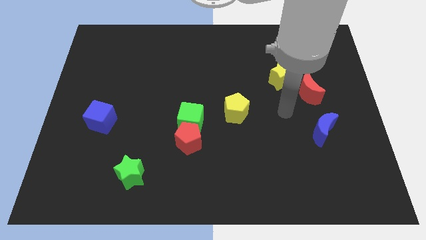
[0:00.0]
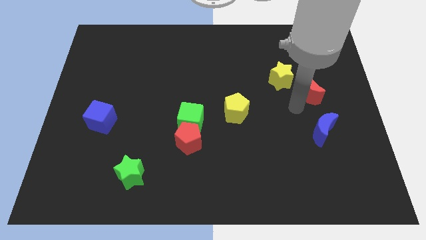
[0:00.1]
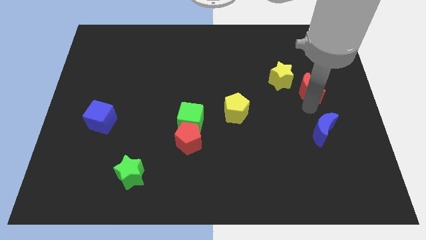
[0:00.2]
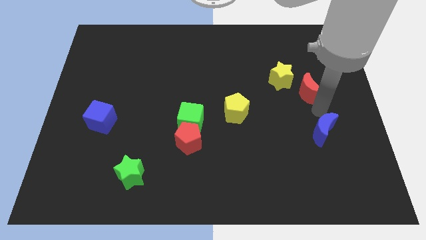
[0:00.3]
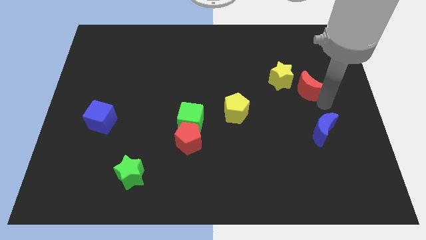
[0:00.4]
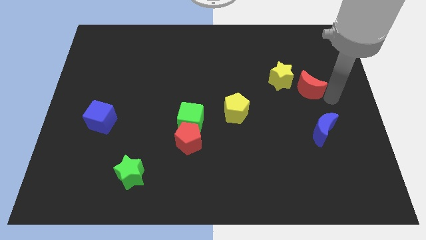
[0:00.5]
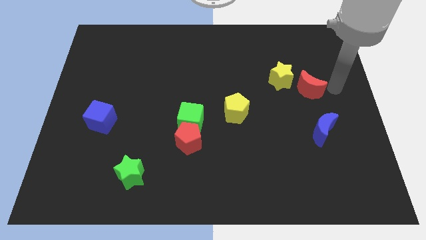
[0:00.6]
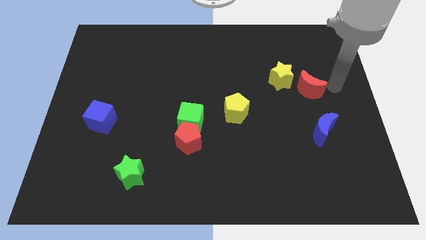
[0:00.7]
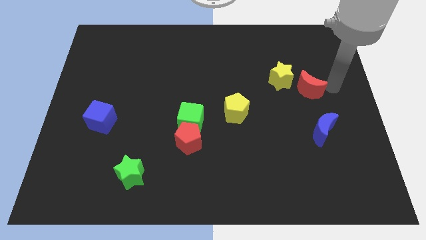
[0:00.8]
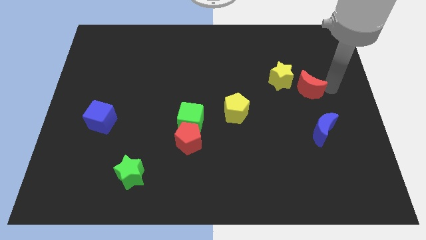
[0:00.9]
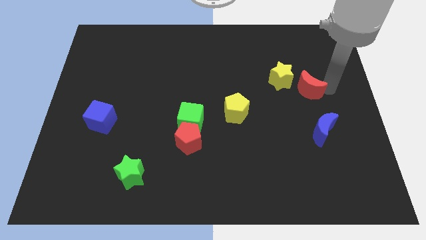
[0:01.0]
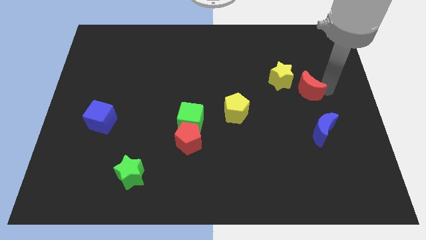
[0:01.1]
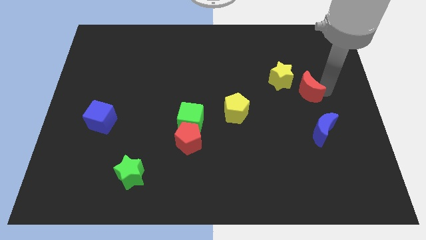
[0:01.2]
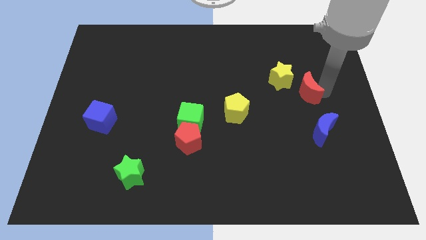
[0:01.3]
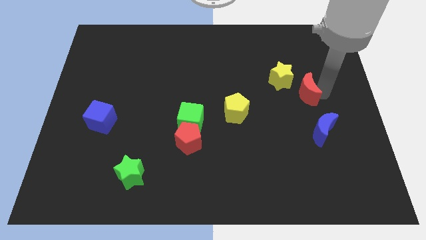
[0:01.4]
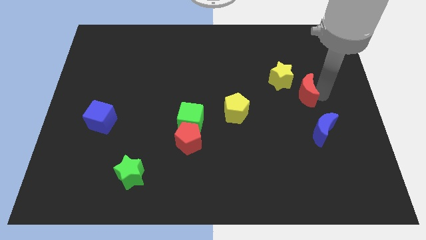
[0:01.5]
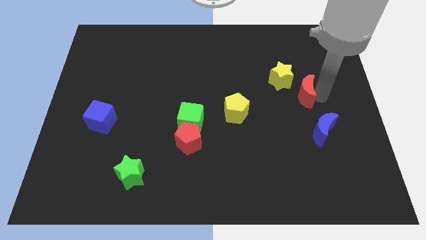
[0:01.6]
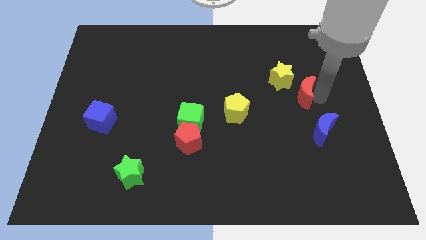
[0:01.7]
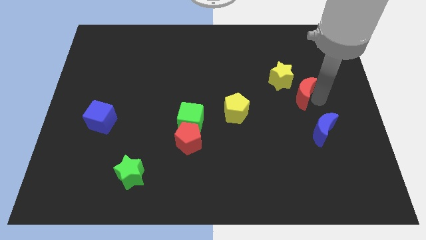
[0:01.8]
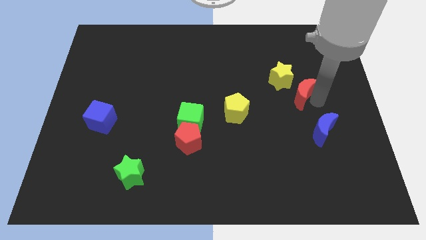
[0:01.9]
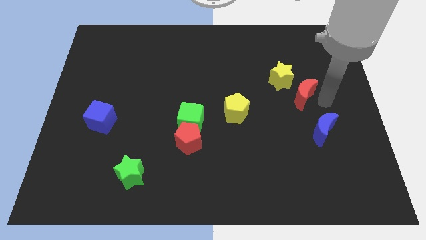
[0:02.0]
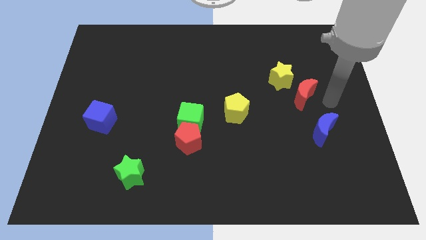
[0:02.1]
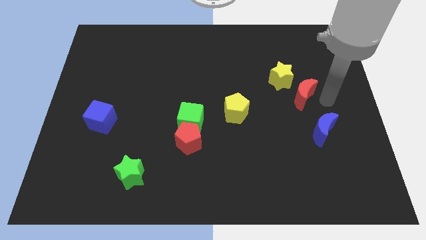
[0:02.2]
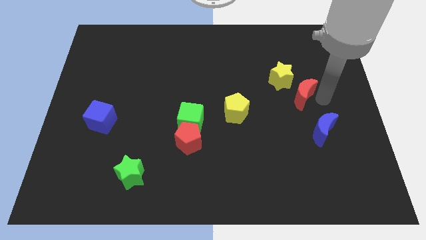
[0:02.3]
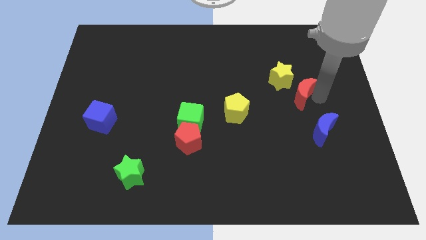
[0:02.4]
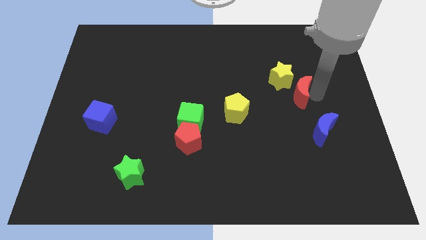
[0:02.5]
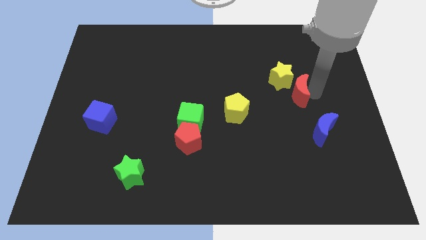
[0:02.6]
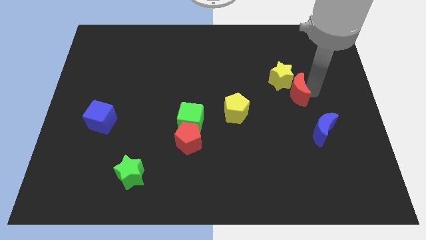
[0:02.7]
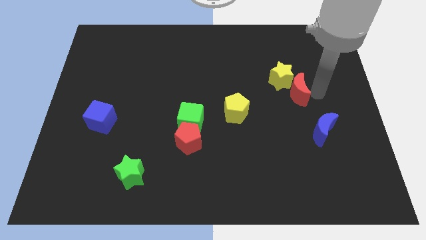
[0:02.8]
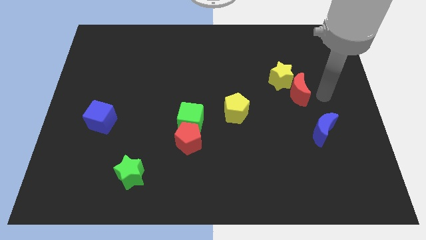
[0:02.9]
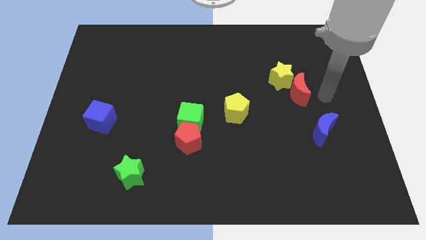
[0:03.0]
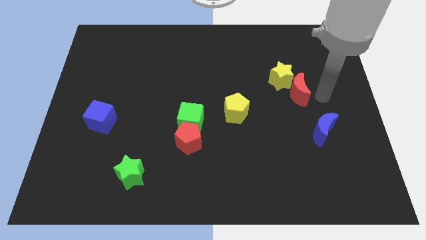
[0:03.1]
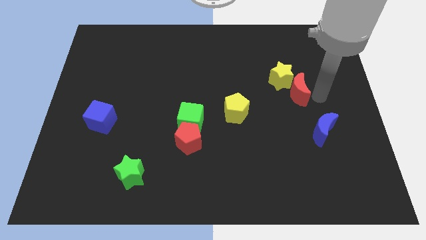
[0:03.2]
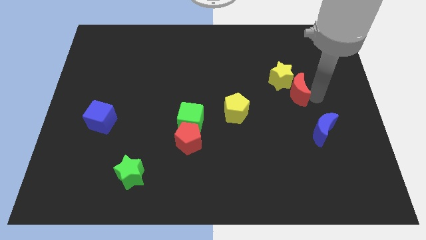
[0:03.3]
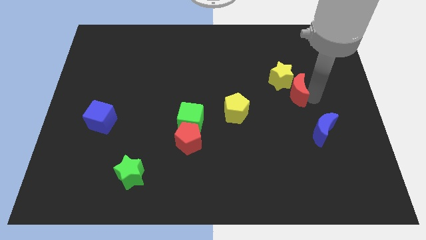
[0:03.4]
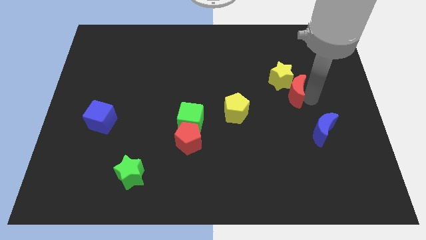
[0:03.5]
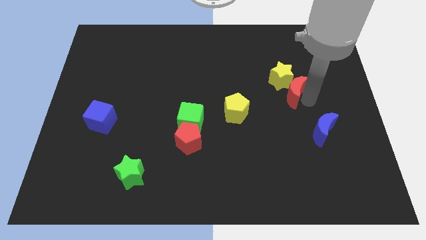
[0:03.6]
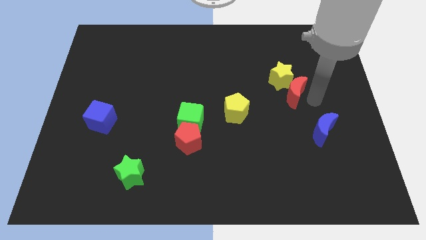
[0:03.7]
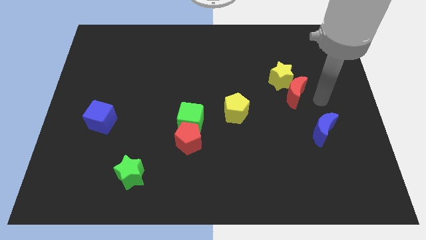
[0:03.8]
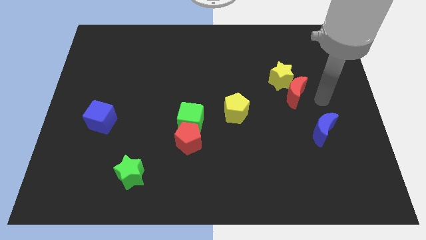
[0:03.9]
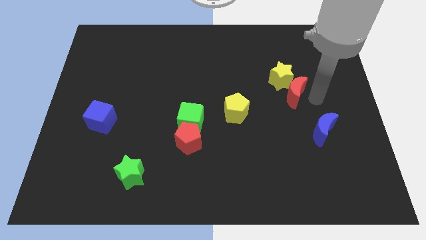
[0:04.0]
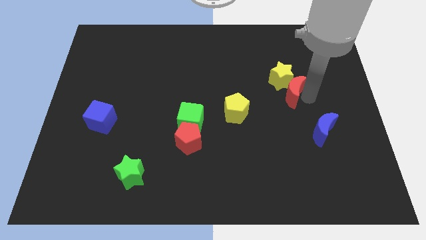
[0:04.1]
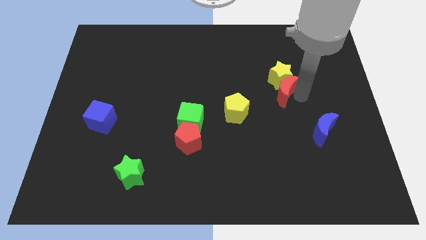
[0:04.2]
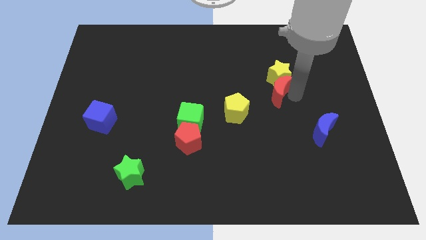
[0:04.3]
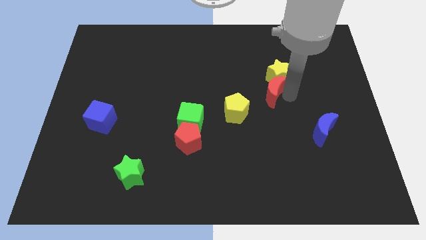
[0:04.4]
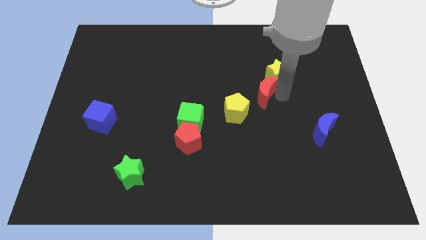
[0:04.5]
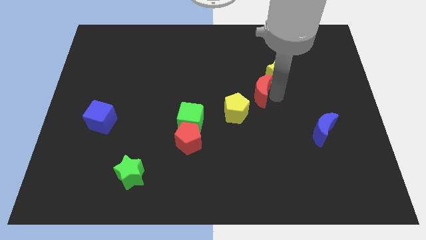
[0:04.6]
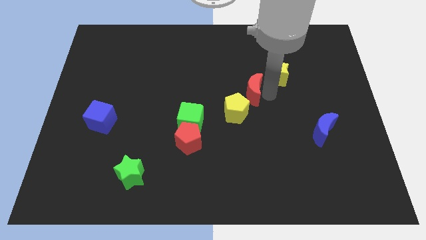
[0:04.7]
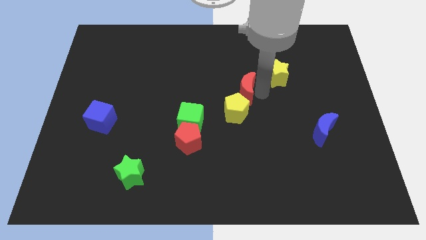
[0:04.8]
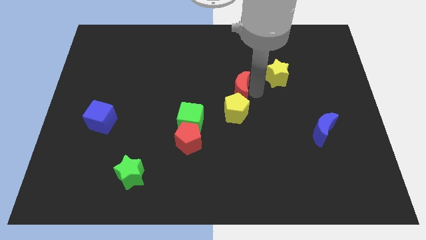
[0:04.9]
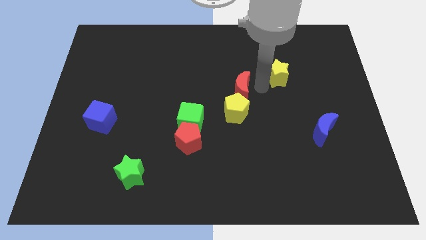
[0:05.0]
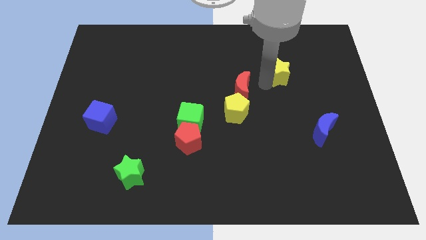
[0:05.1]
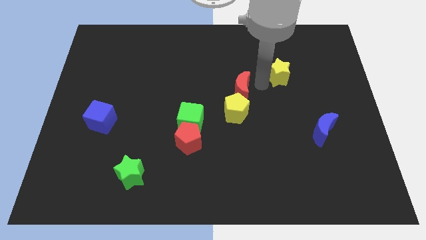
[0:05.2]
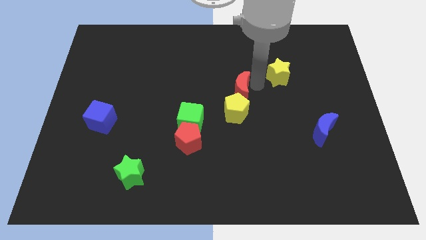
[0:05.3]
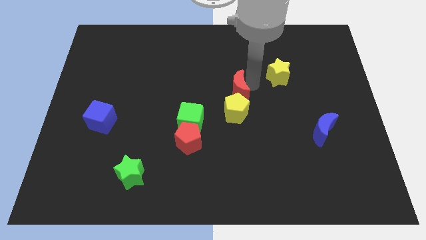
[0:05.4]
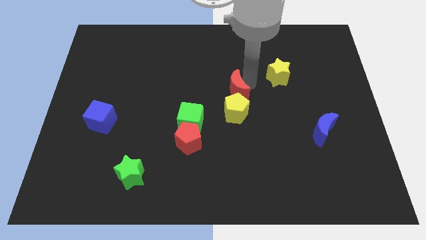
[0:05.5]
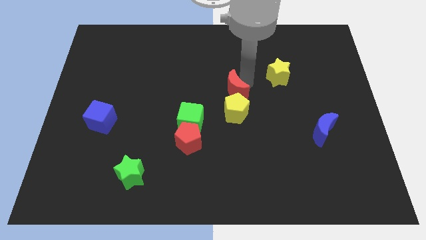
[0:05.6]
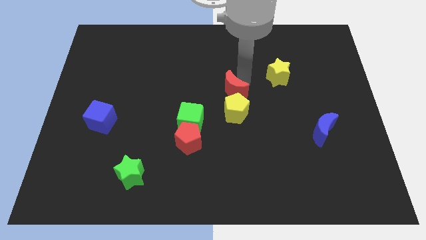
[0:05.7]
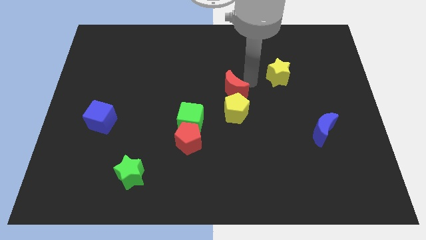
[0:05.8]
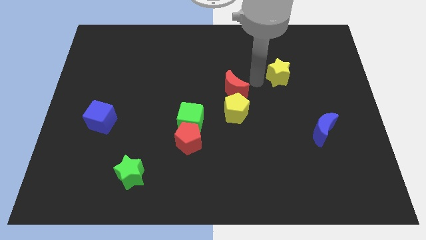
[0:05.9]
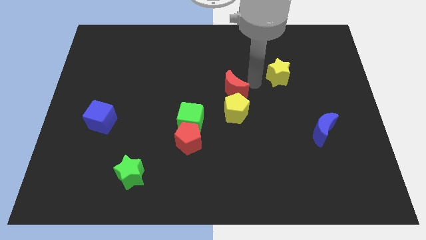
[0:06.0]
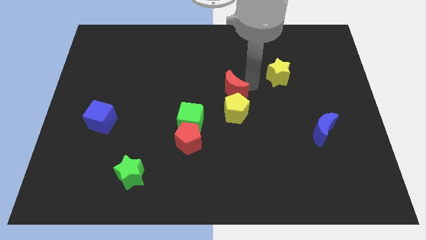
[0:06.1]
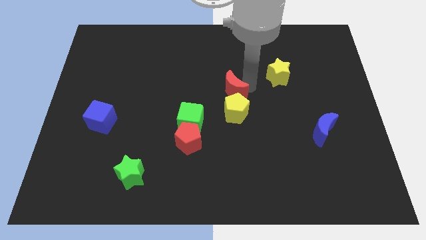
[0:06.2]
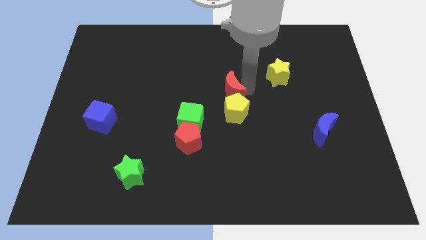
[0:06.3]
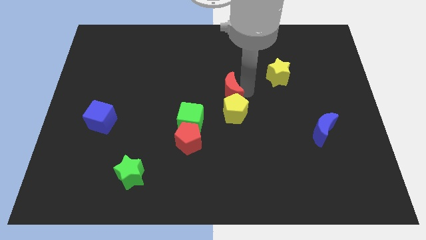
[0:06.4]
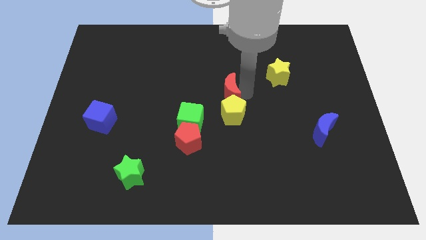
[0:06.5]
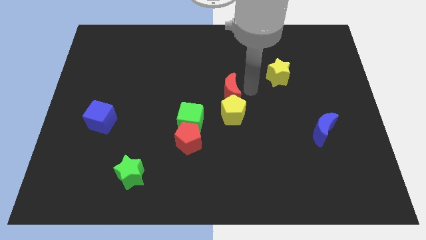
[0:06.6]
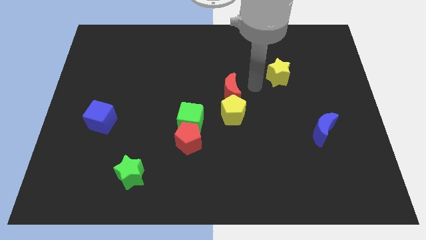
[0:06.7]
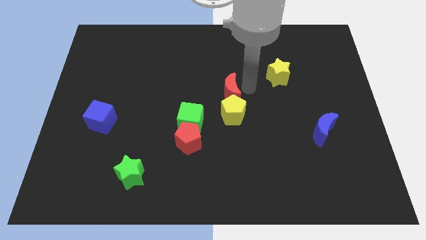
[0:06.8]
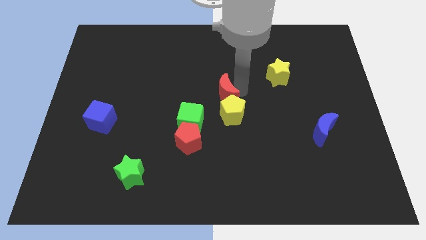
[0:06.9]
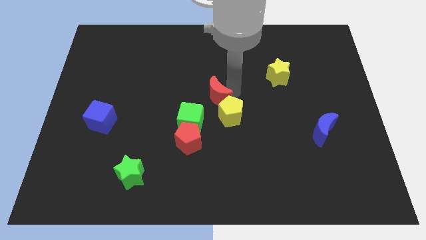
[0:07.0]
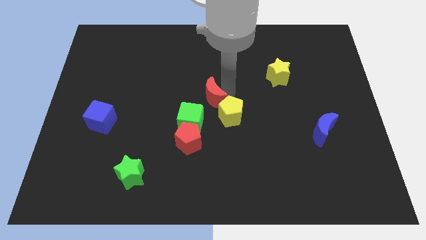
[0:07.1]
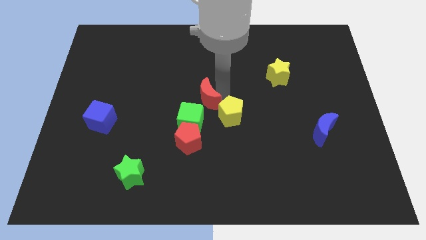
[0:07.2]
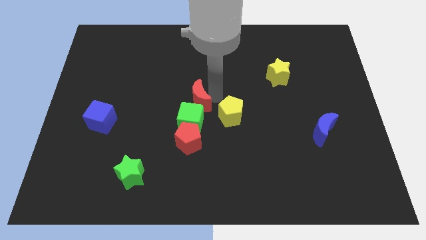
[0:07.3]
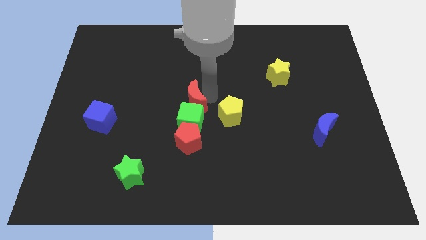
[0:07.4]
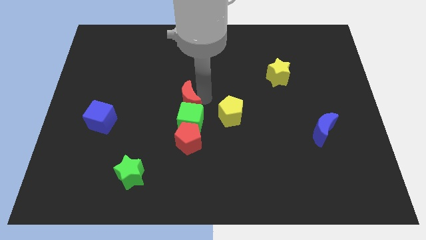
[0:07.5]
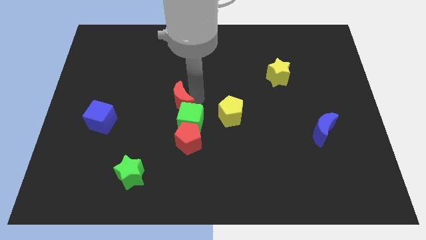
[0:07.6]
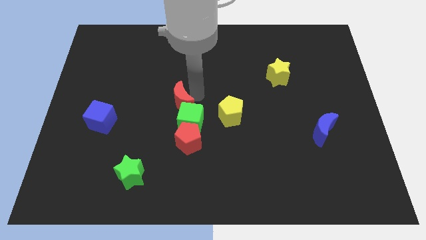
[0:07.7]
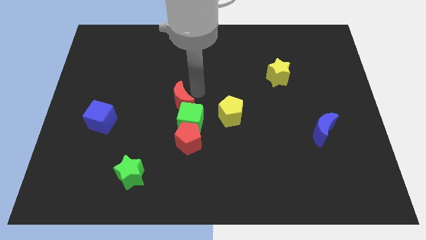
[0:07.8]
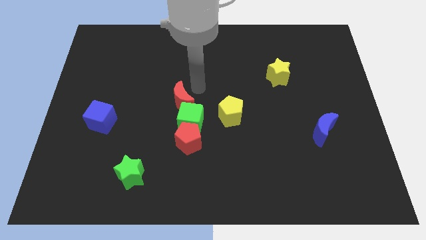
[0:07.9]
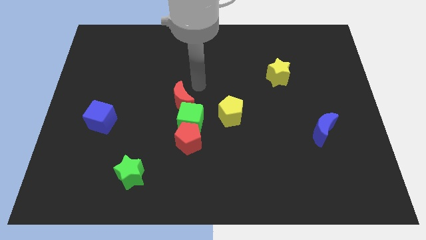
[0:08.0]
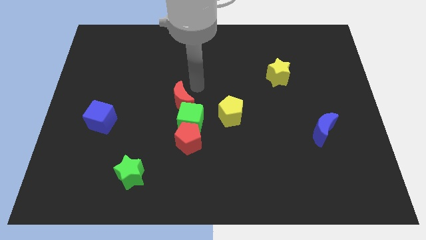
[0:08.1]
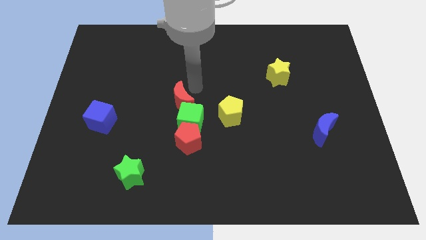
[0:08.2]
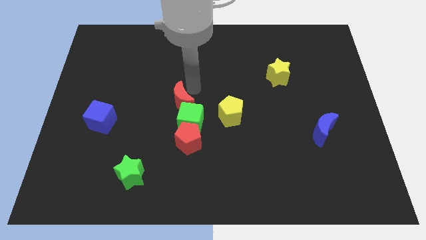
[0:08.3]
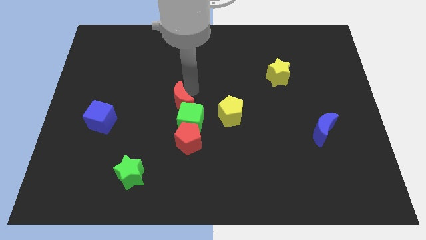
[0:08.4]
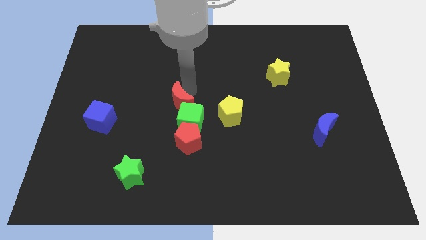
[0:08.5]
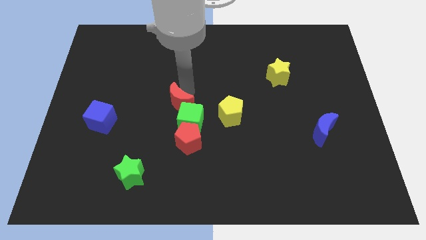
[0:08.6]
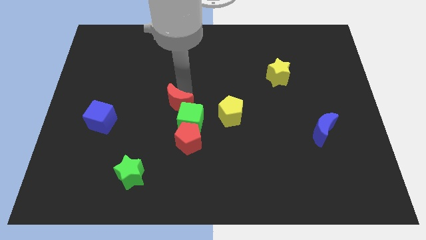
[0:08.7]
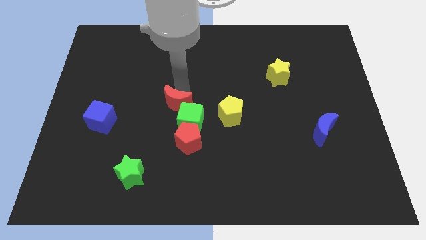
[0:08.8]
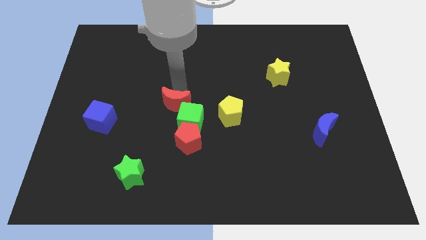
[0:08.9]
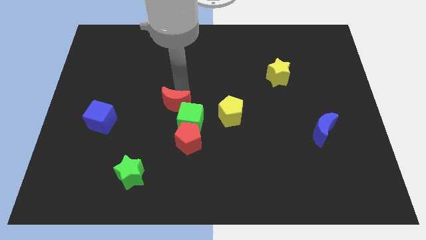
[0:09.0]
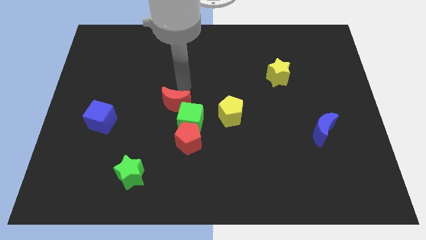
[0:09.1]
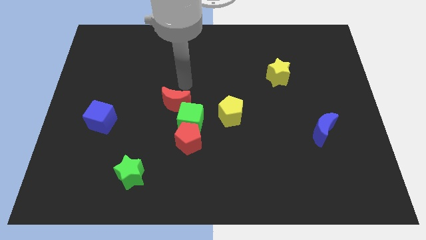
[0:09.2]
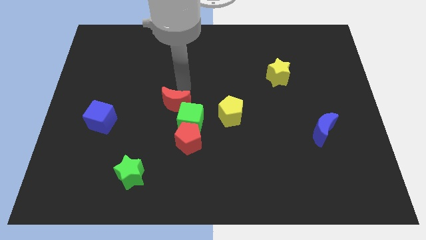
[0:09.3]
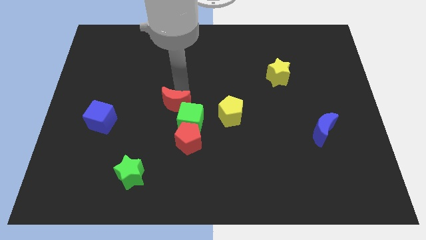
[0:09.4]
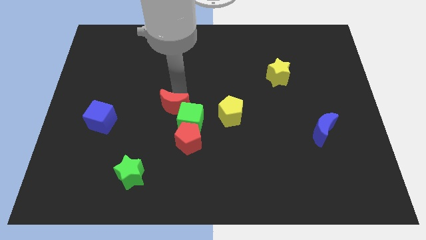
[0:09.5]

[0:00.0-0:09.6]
slide the red moon just left of the green cube
